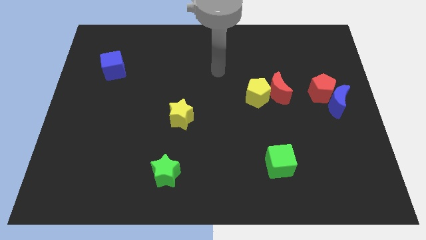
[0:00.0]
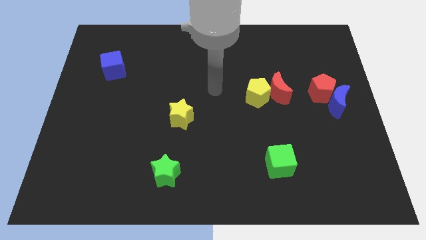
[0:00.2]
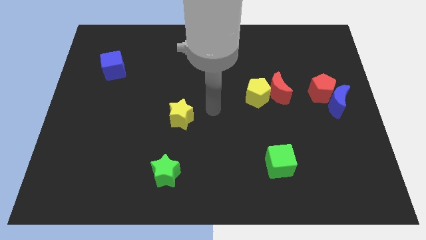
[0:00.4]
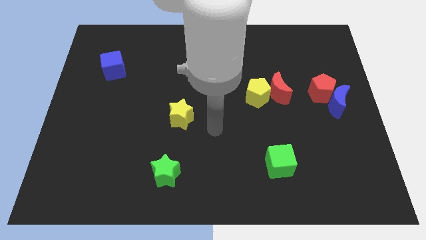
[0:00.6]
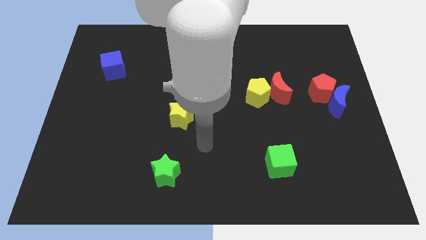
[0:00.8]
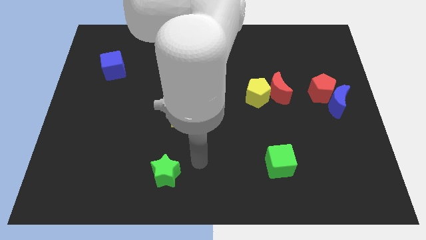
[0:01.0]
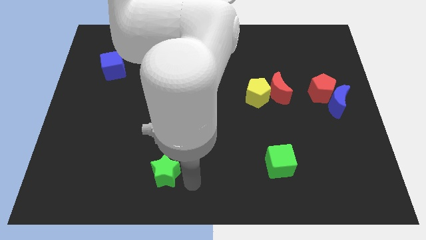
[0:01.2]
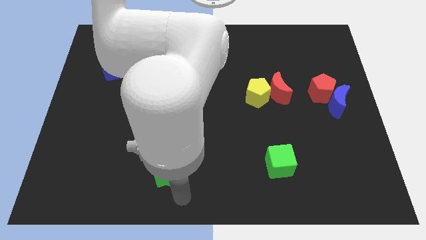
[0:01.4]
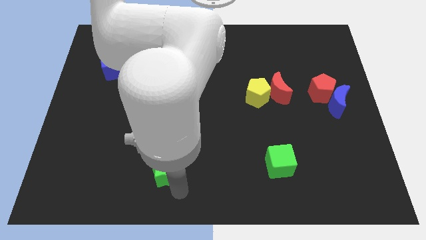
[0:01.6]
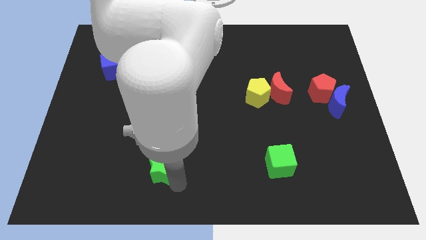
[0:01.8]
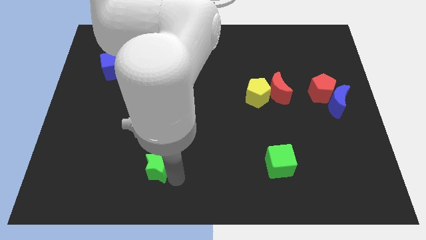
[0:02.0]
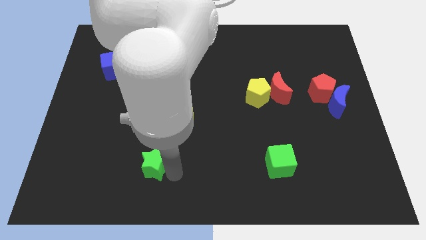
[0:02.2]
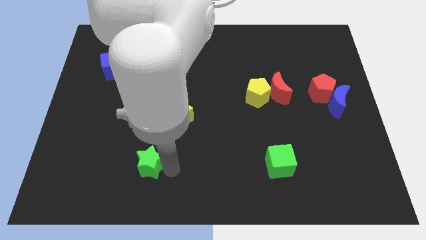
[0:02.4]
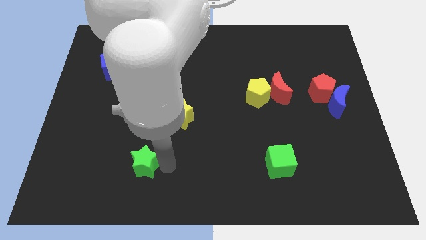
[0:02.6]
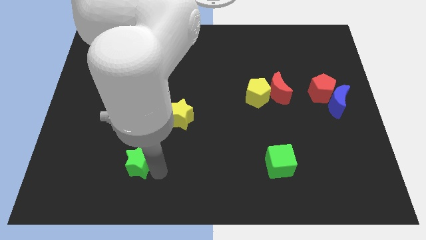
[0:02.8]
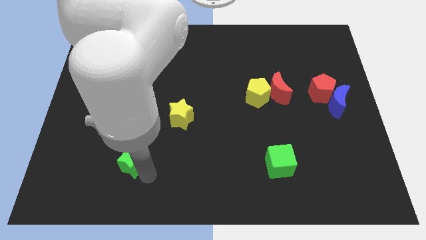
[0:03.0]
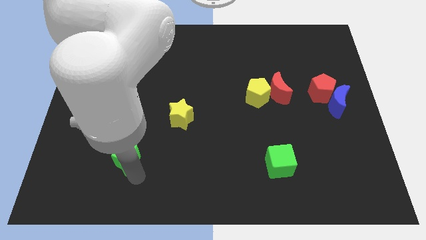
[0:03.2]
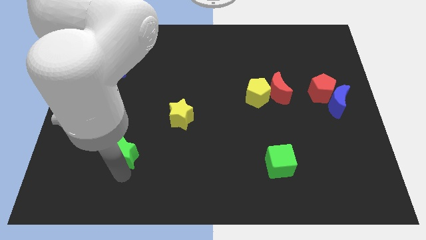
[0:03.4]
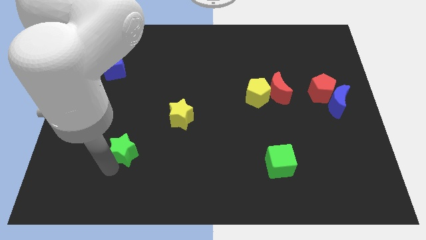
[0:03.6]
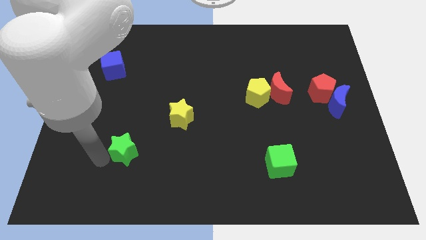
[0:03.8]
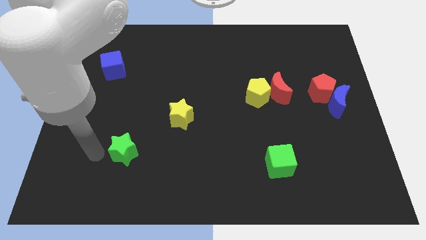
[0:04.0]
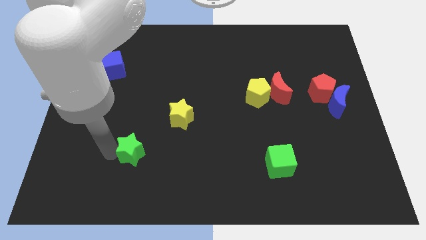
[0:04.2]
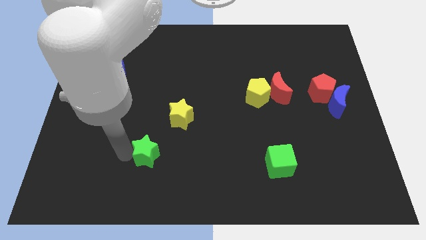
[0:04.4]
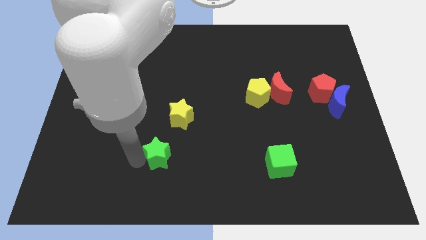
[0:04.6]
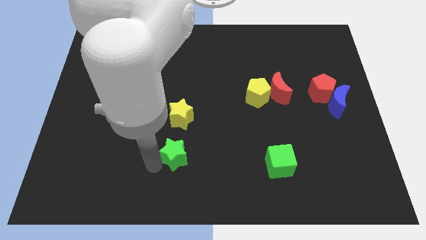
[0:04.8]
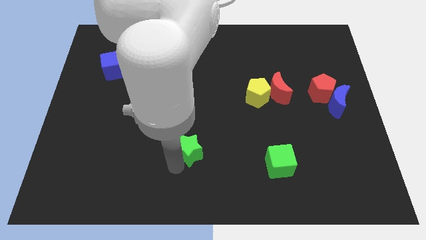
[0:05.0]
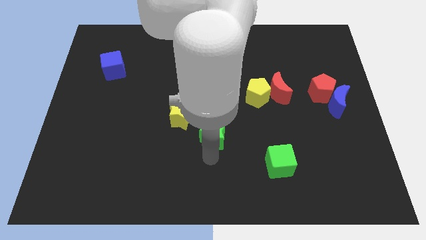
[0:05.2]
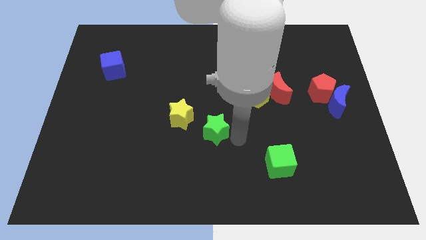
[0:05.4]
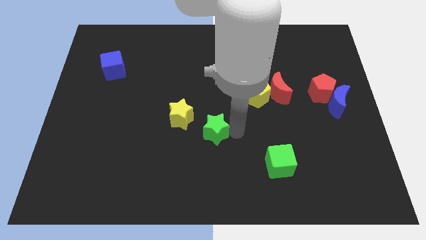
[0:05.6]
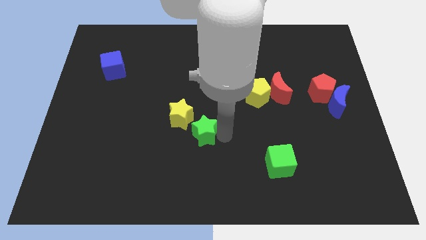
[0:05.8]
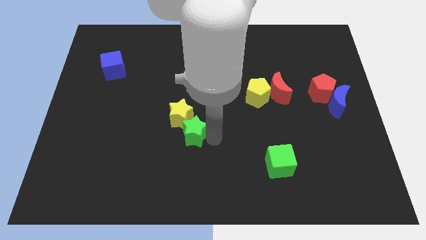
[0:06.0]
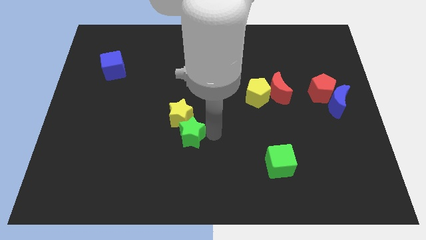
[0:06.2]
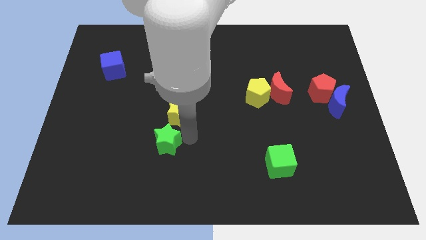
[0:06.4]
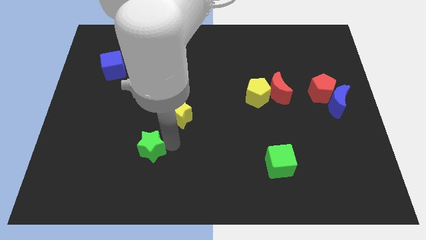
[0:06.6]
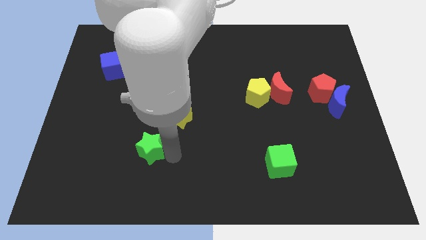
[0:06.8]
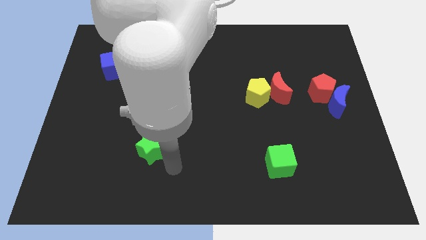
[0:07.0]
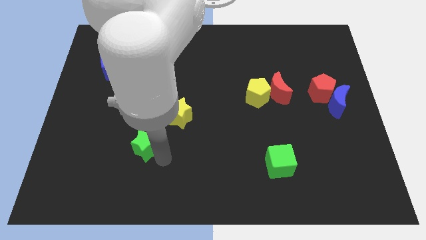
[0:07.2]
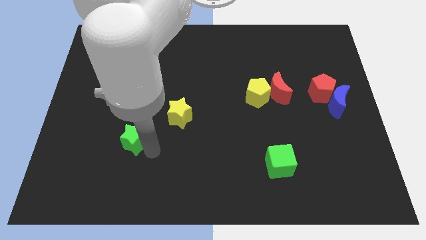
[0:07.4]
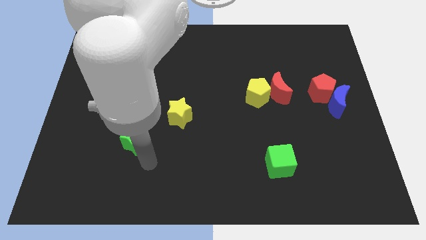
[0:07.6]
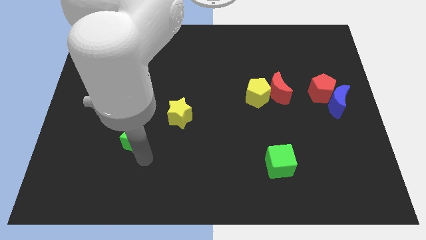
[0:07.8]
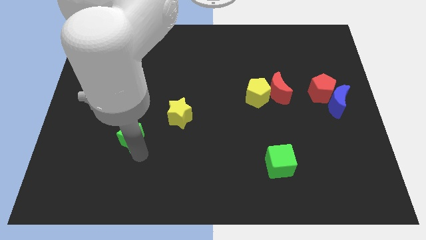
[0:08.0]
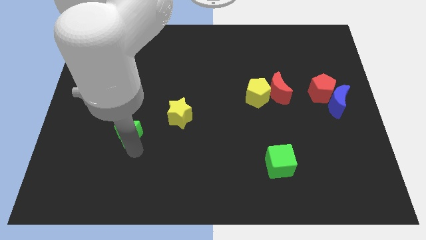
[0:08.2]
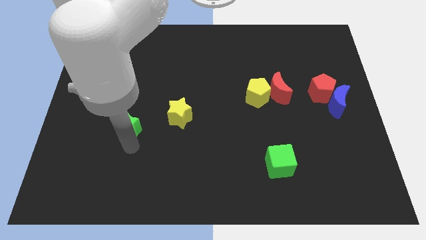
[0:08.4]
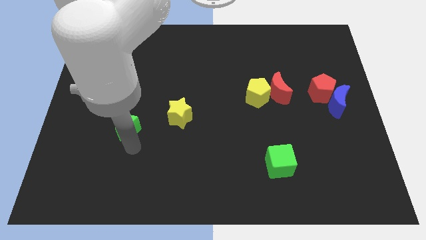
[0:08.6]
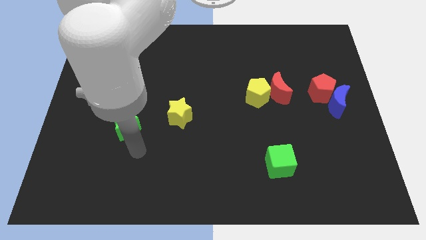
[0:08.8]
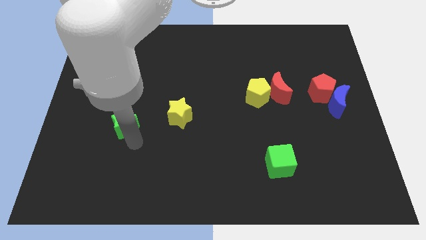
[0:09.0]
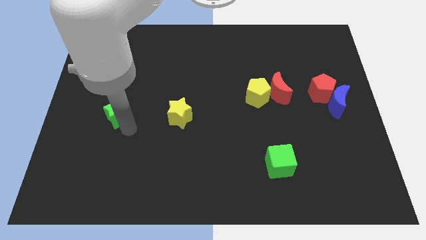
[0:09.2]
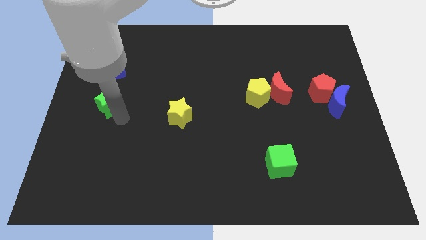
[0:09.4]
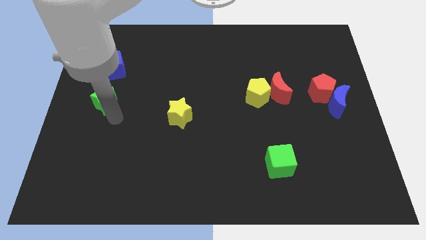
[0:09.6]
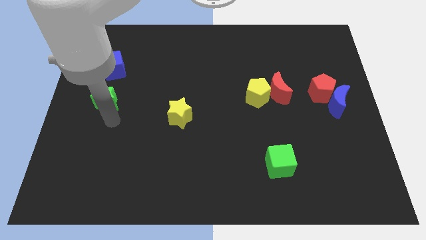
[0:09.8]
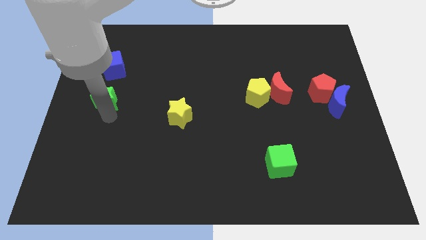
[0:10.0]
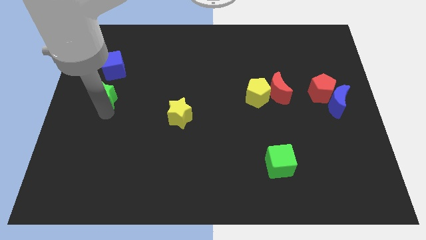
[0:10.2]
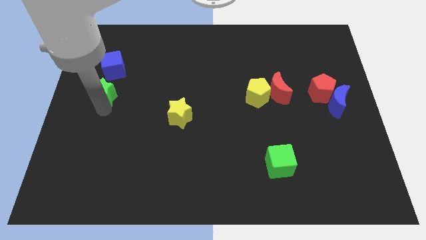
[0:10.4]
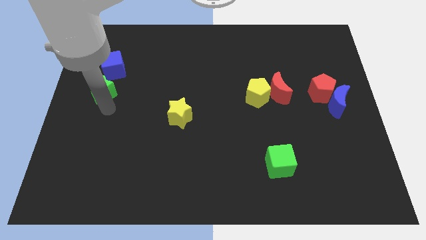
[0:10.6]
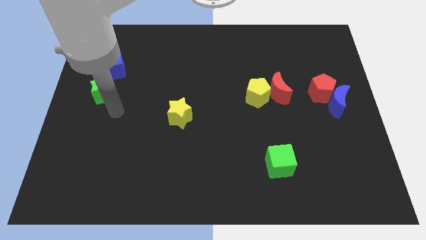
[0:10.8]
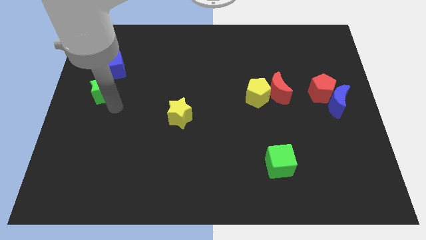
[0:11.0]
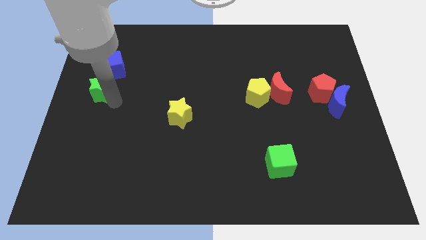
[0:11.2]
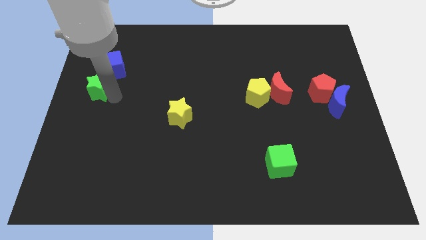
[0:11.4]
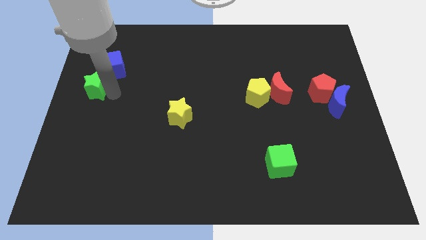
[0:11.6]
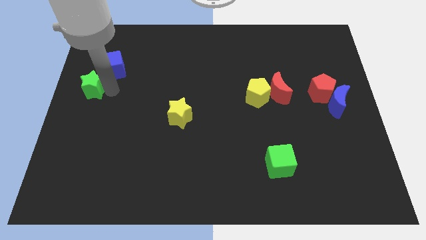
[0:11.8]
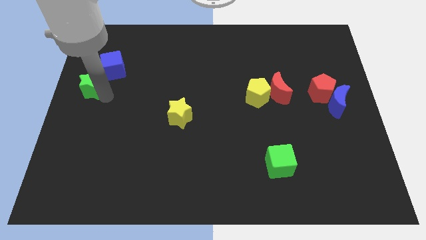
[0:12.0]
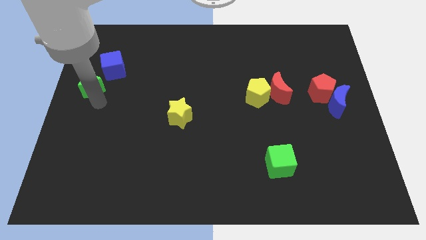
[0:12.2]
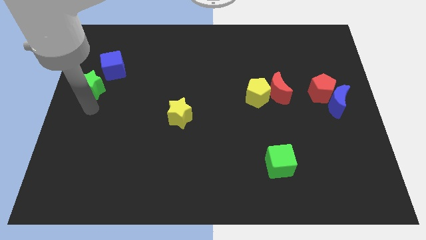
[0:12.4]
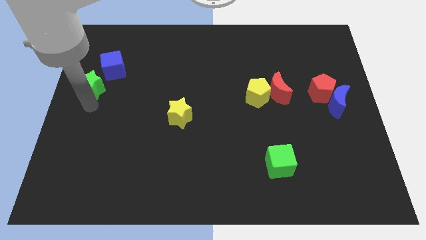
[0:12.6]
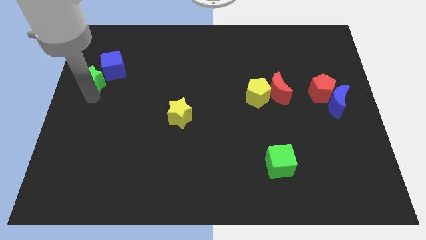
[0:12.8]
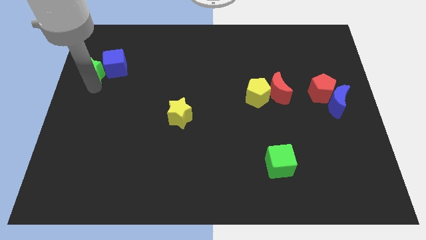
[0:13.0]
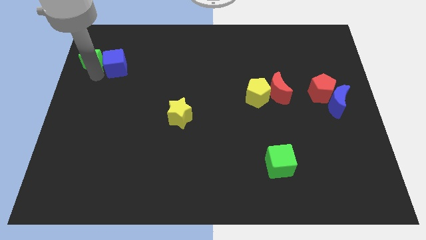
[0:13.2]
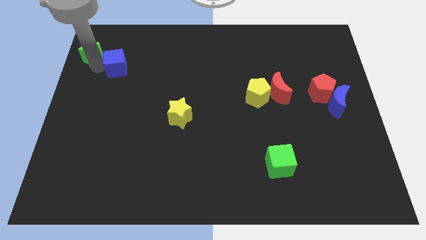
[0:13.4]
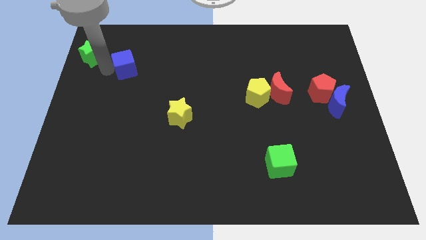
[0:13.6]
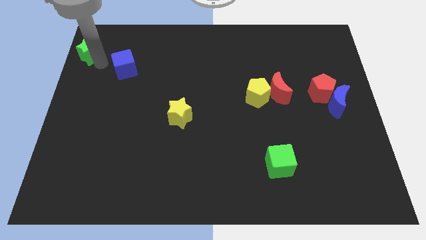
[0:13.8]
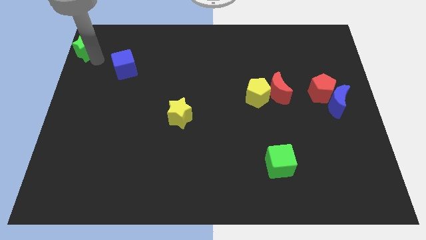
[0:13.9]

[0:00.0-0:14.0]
put the green star to the top left corner
